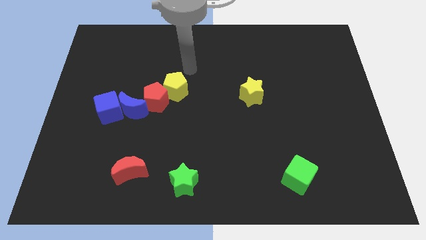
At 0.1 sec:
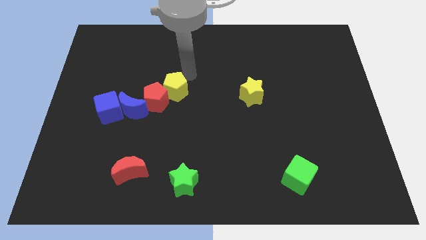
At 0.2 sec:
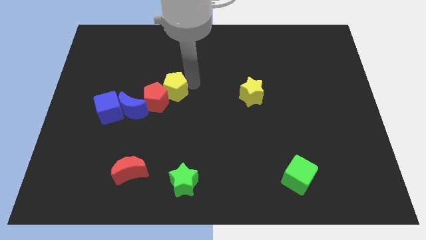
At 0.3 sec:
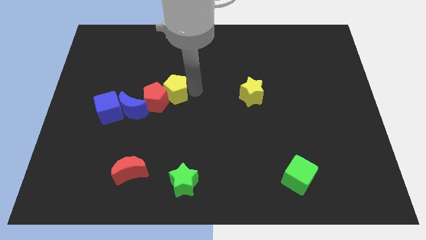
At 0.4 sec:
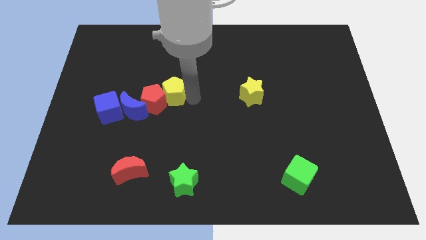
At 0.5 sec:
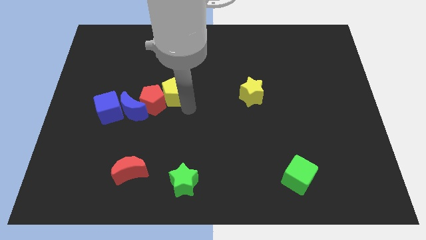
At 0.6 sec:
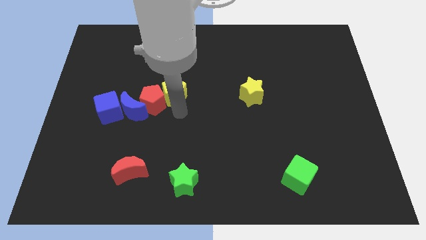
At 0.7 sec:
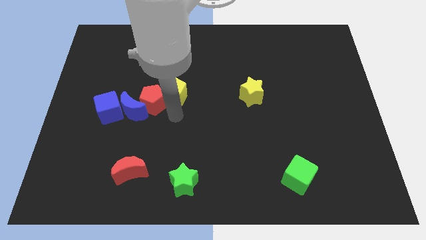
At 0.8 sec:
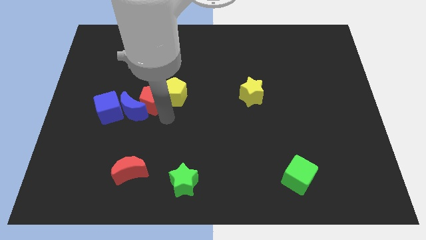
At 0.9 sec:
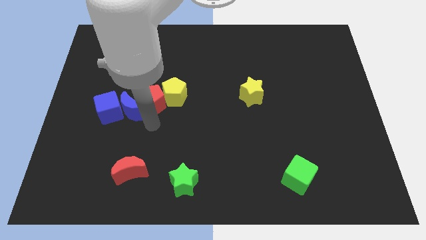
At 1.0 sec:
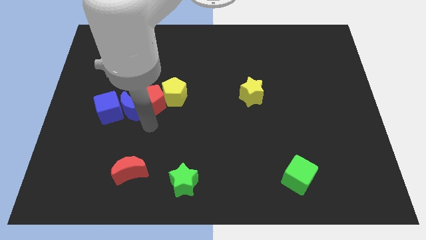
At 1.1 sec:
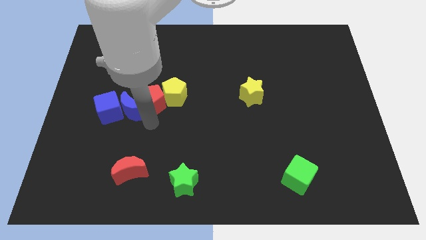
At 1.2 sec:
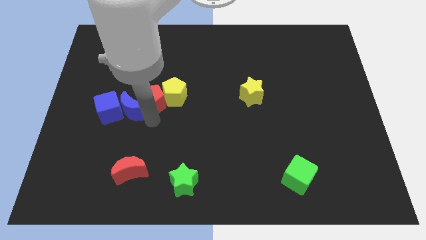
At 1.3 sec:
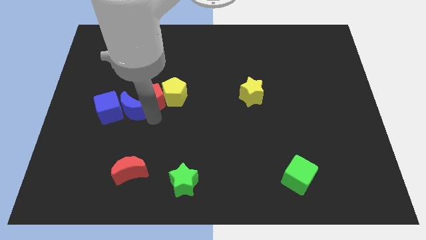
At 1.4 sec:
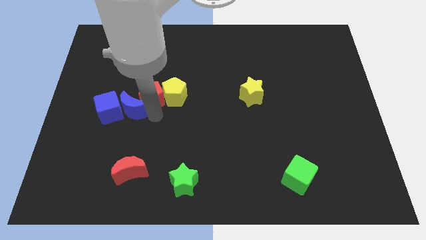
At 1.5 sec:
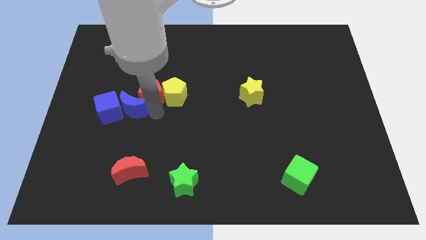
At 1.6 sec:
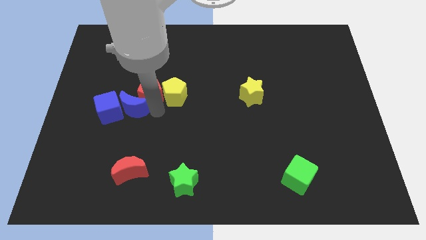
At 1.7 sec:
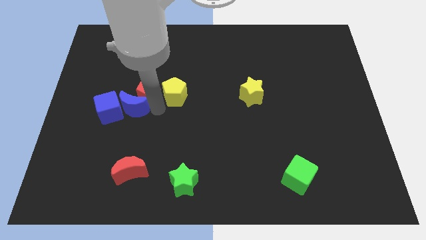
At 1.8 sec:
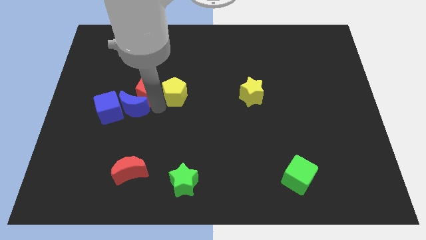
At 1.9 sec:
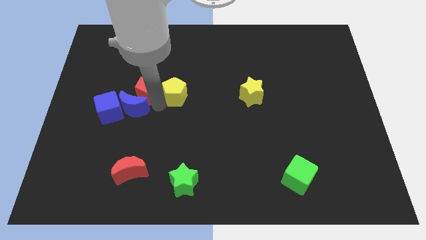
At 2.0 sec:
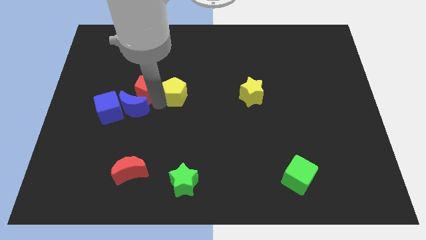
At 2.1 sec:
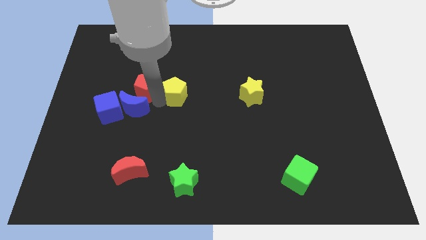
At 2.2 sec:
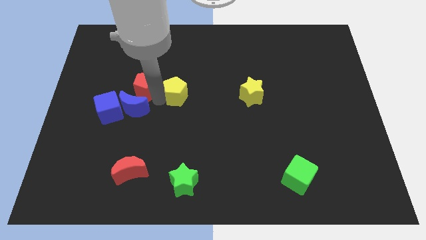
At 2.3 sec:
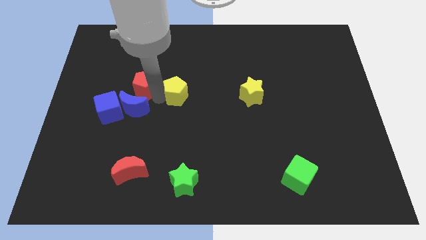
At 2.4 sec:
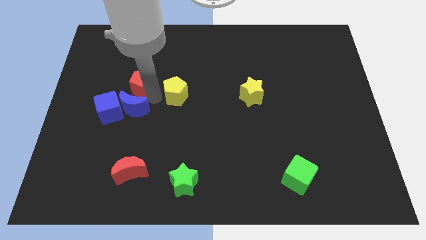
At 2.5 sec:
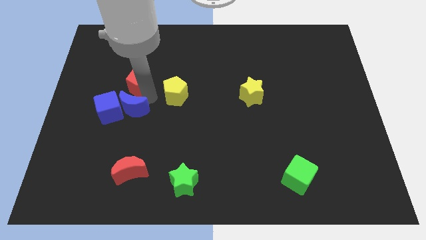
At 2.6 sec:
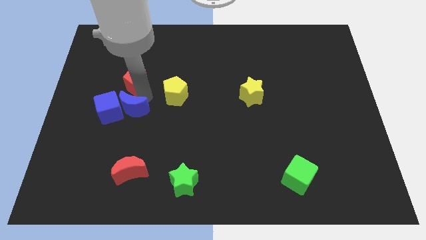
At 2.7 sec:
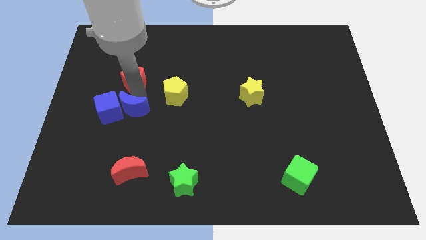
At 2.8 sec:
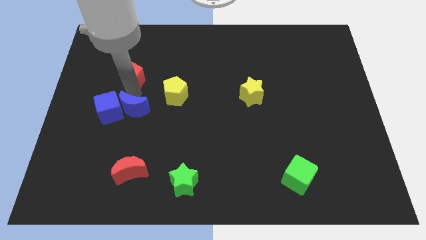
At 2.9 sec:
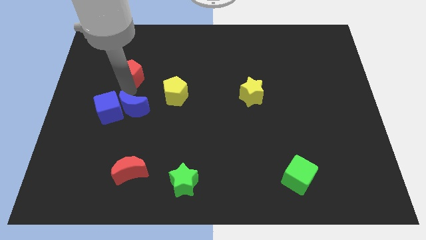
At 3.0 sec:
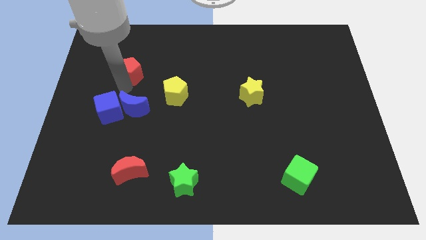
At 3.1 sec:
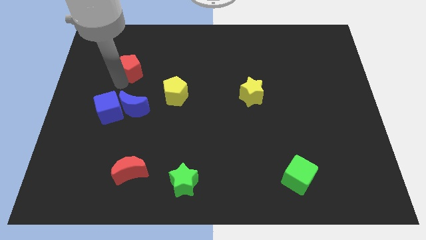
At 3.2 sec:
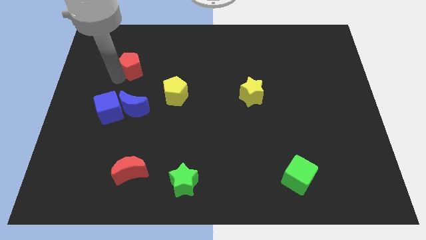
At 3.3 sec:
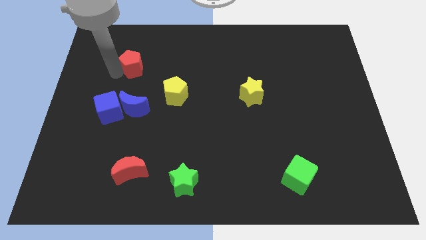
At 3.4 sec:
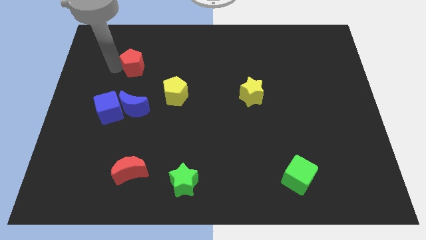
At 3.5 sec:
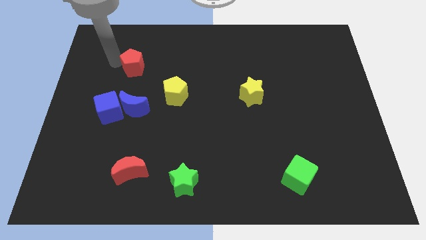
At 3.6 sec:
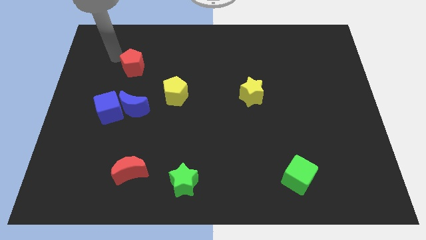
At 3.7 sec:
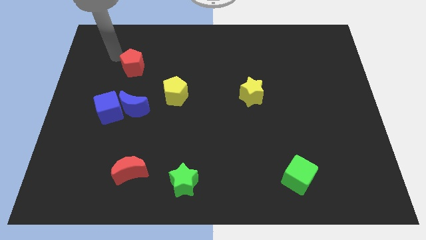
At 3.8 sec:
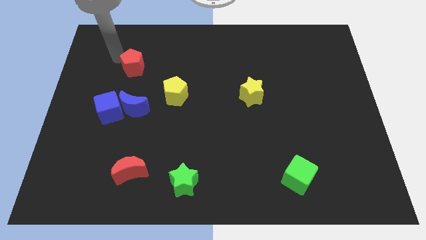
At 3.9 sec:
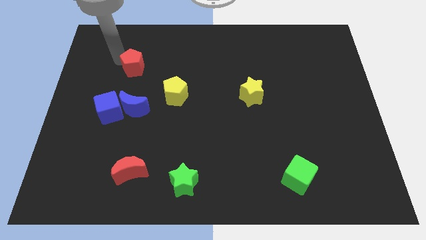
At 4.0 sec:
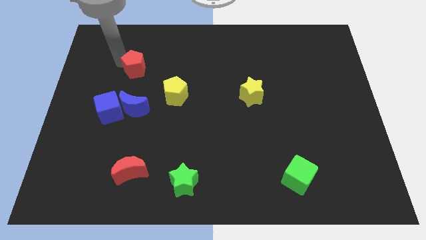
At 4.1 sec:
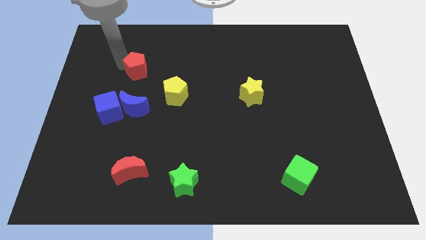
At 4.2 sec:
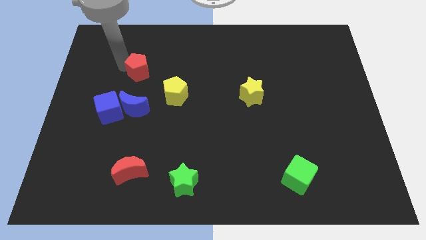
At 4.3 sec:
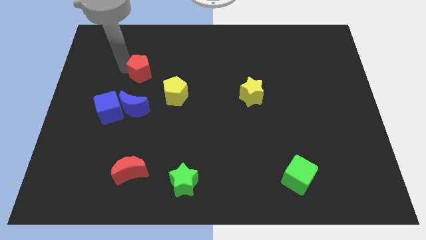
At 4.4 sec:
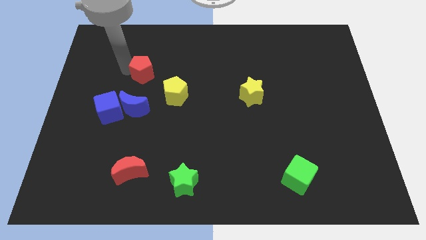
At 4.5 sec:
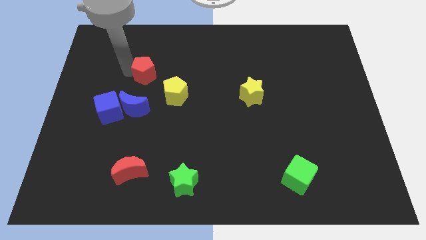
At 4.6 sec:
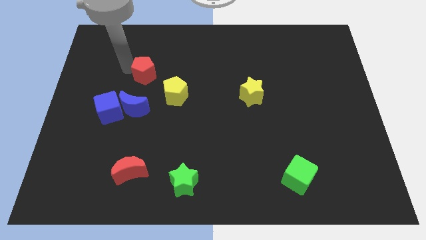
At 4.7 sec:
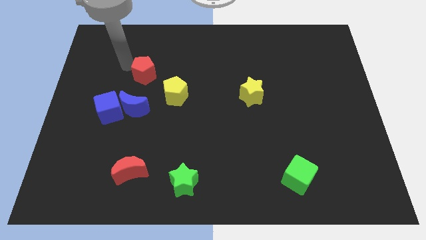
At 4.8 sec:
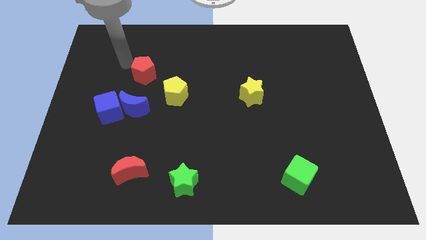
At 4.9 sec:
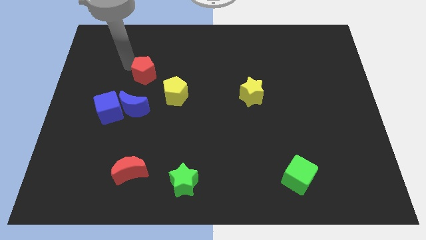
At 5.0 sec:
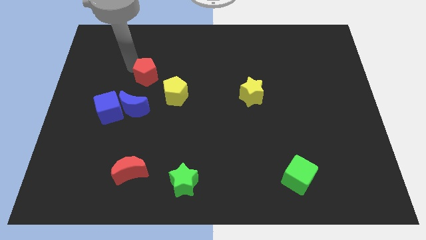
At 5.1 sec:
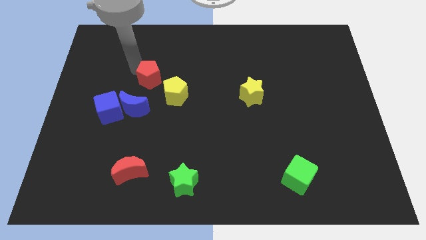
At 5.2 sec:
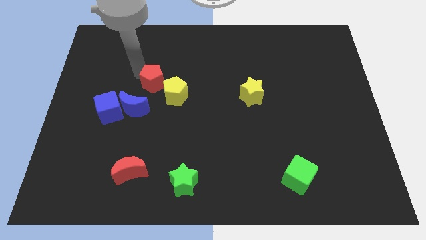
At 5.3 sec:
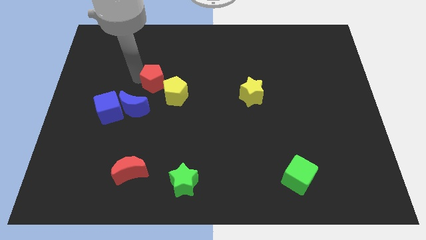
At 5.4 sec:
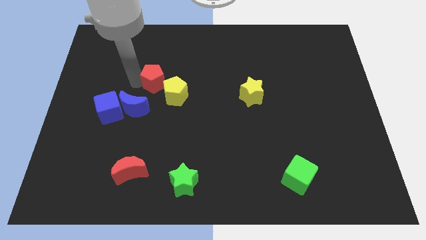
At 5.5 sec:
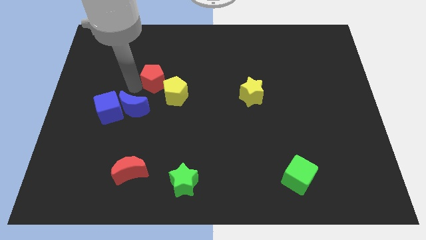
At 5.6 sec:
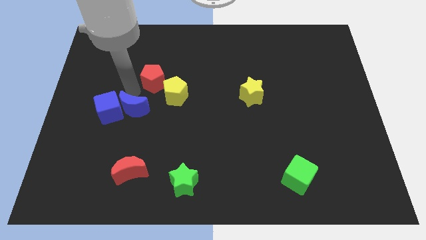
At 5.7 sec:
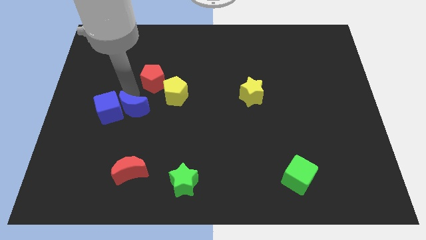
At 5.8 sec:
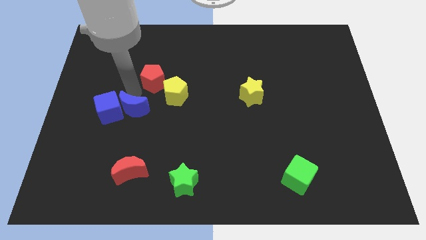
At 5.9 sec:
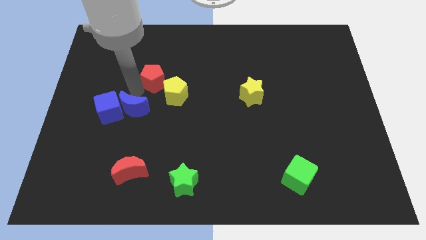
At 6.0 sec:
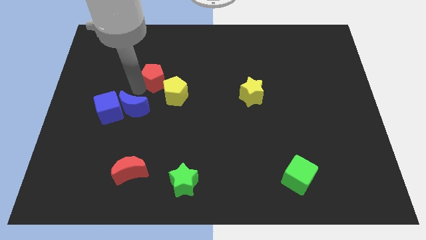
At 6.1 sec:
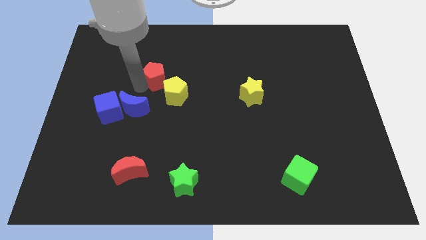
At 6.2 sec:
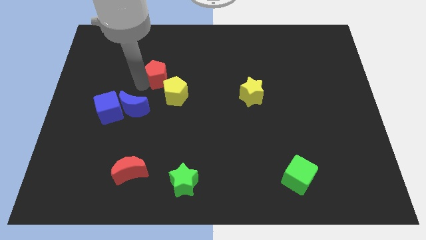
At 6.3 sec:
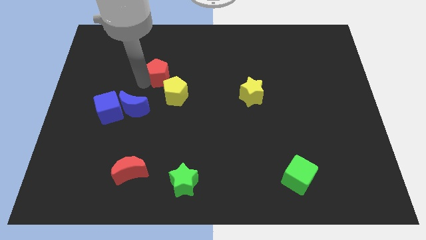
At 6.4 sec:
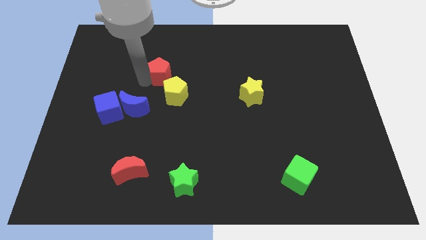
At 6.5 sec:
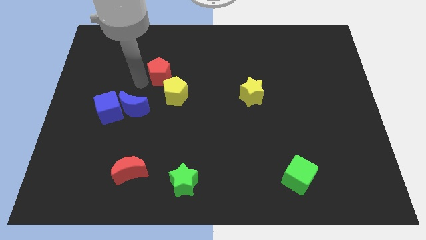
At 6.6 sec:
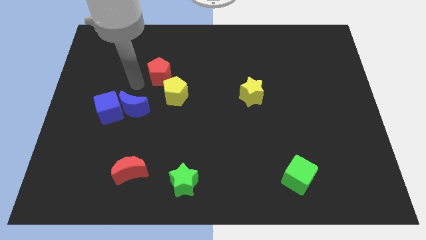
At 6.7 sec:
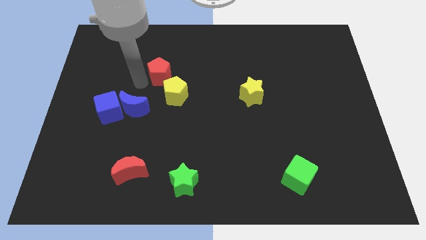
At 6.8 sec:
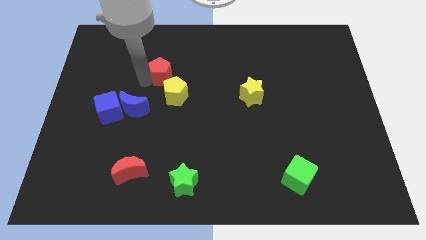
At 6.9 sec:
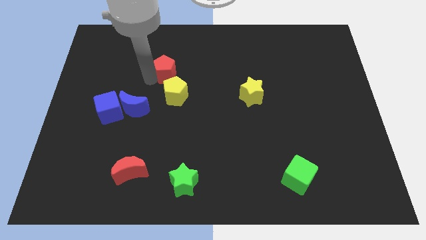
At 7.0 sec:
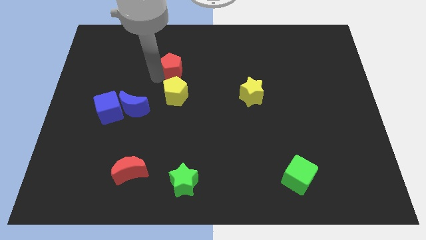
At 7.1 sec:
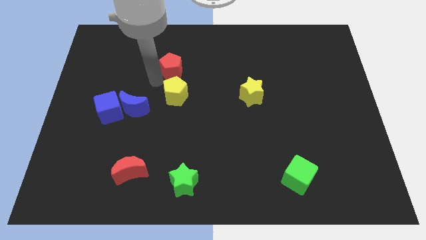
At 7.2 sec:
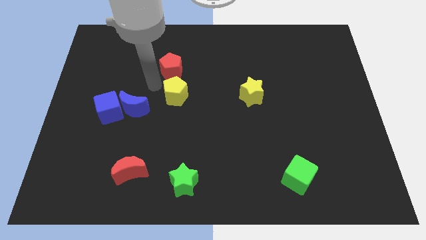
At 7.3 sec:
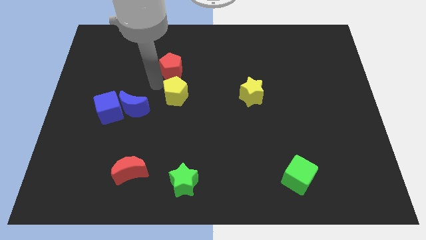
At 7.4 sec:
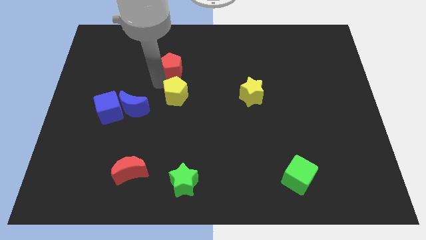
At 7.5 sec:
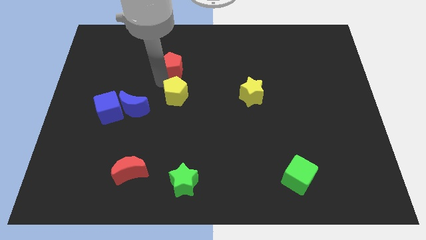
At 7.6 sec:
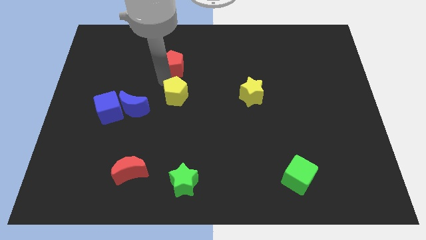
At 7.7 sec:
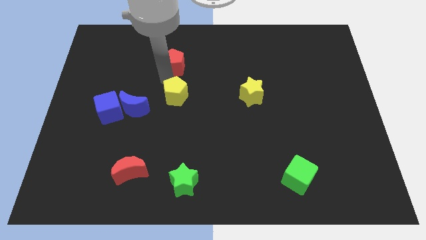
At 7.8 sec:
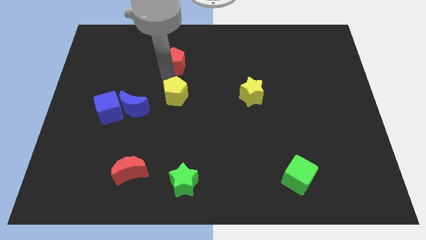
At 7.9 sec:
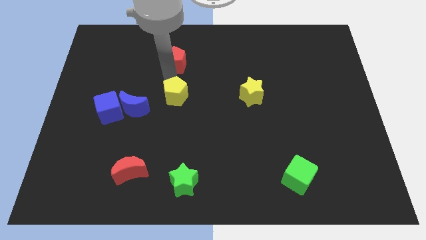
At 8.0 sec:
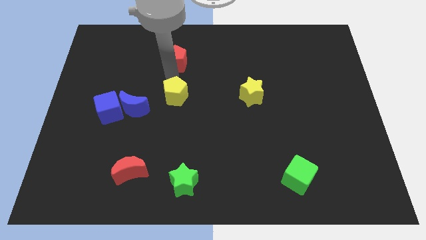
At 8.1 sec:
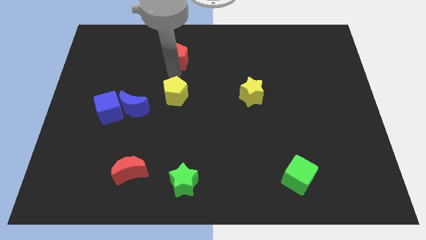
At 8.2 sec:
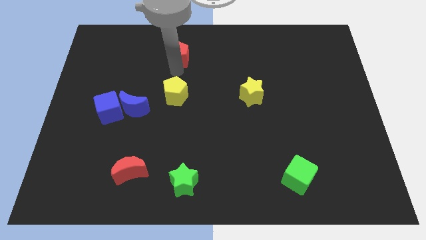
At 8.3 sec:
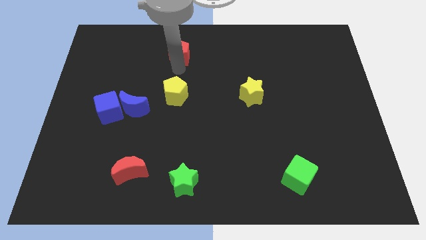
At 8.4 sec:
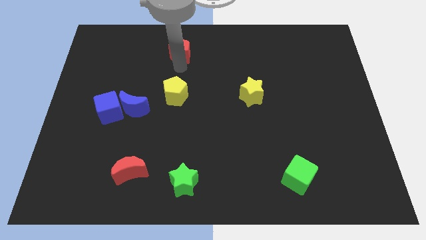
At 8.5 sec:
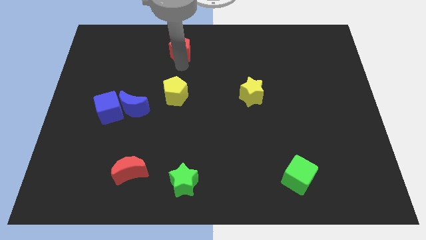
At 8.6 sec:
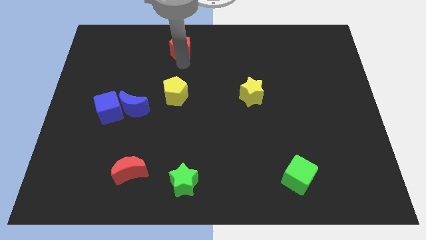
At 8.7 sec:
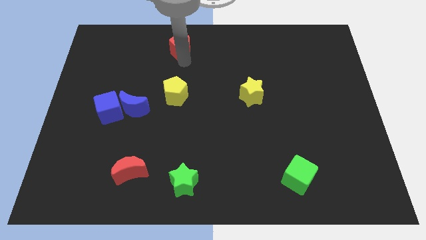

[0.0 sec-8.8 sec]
push the red pentagon to the top
